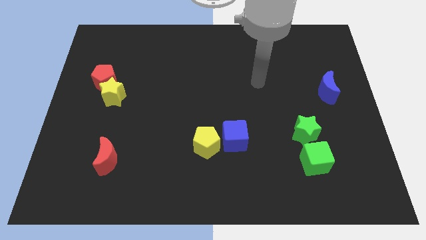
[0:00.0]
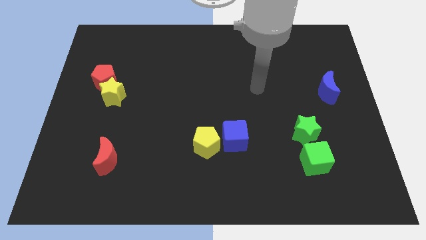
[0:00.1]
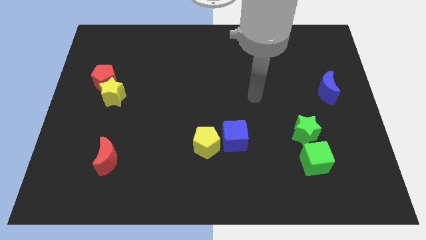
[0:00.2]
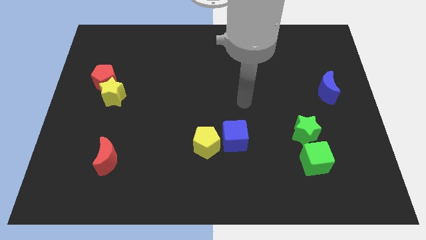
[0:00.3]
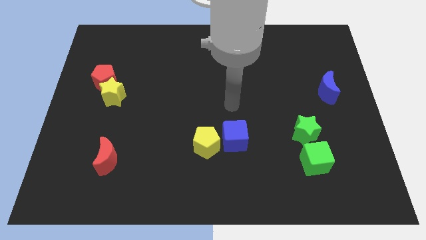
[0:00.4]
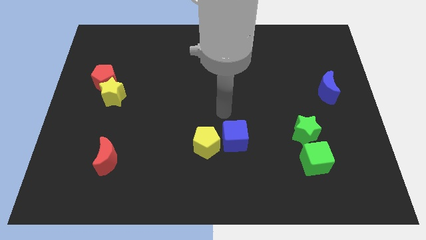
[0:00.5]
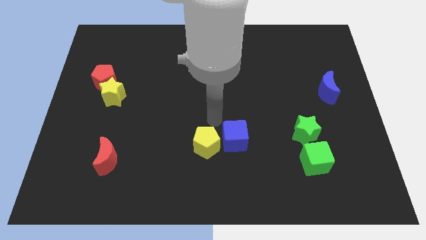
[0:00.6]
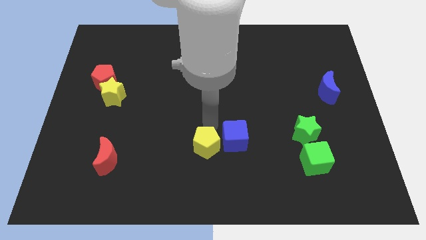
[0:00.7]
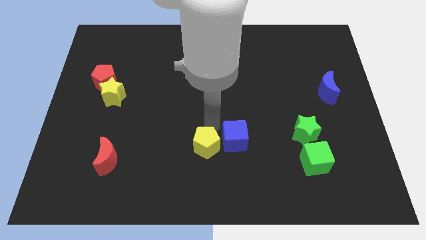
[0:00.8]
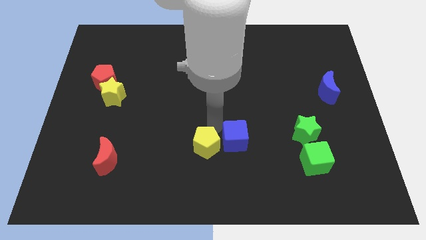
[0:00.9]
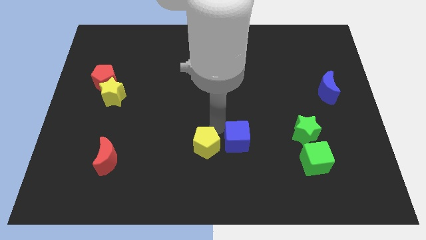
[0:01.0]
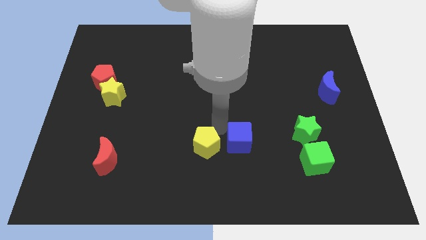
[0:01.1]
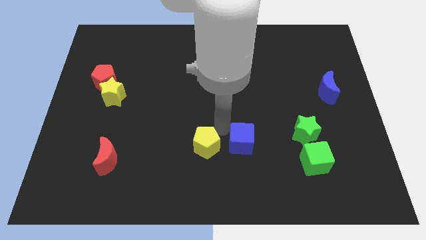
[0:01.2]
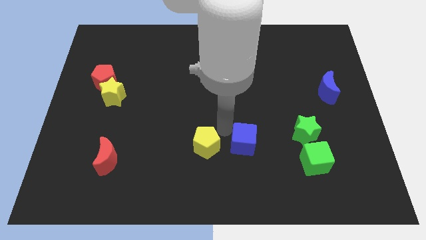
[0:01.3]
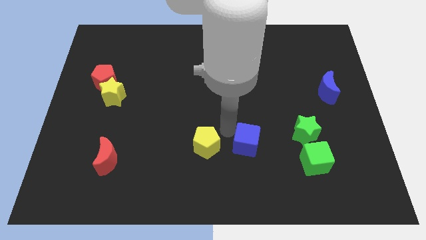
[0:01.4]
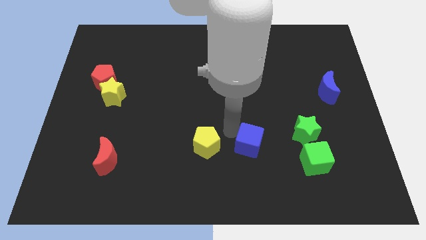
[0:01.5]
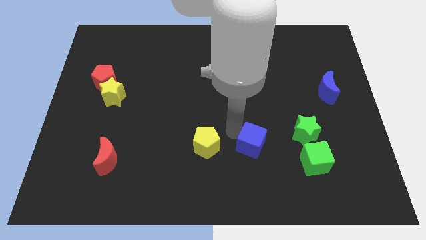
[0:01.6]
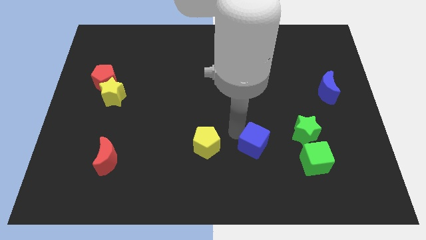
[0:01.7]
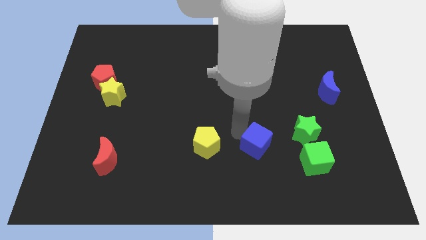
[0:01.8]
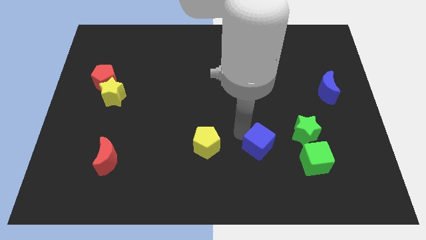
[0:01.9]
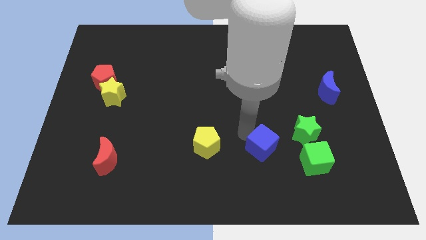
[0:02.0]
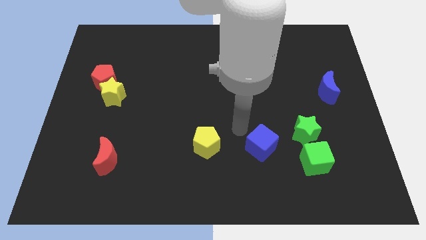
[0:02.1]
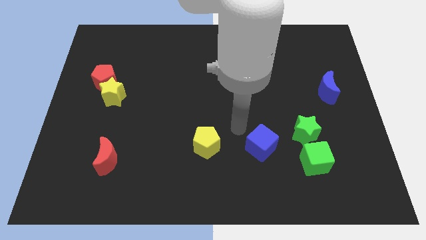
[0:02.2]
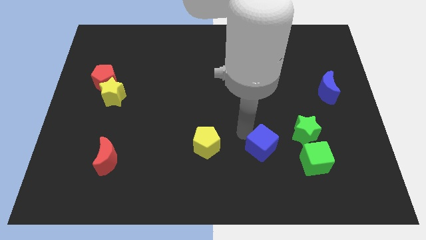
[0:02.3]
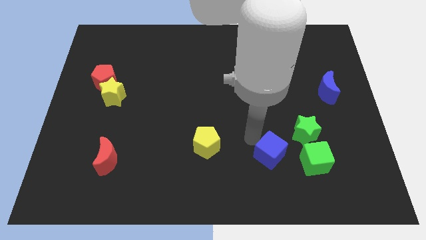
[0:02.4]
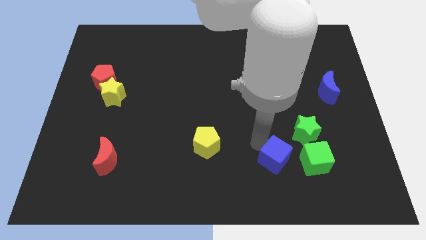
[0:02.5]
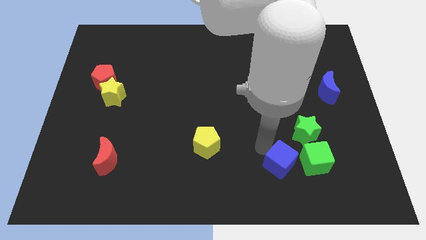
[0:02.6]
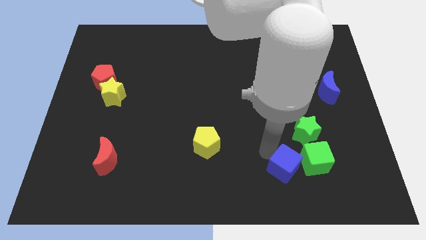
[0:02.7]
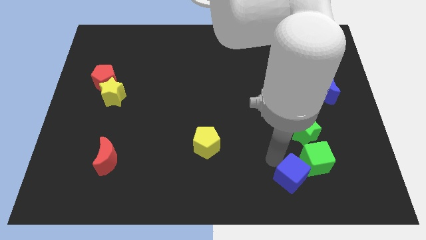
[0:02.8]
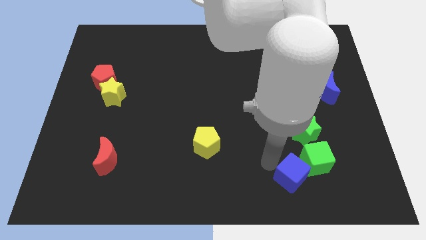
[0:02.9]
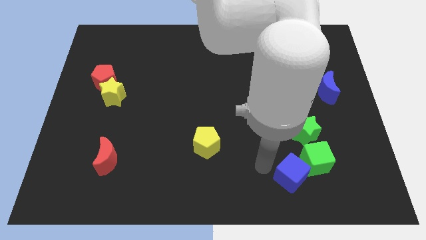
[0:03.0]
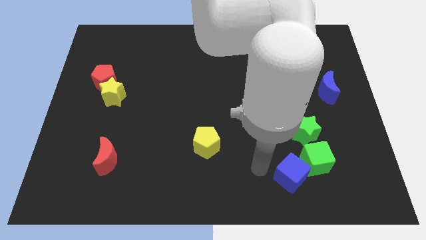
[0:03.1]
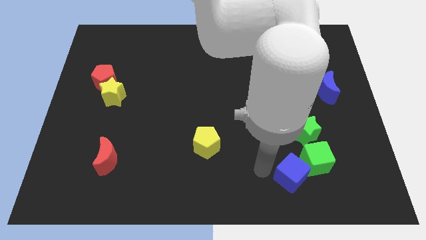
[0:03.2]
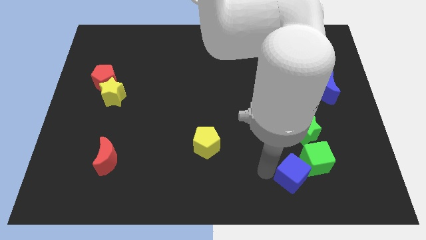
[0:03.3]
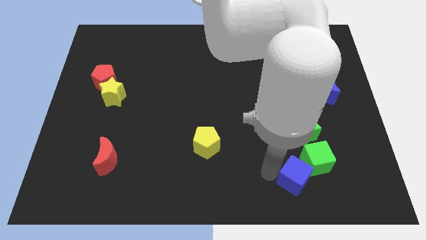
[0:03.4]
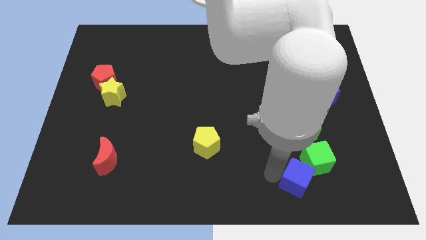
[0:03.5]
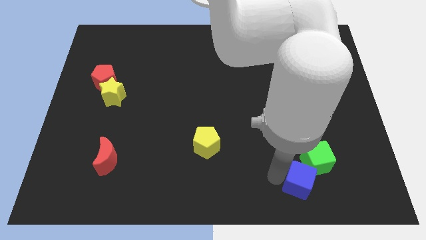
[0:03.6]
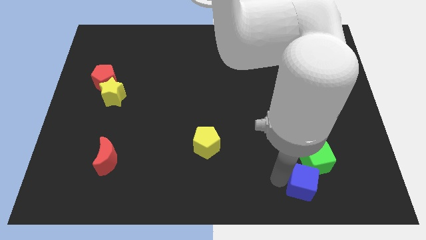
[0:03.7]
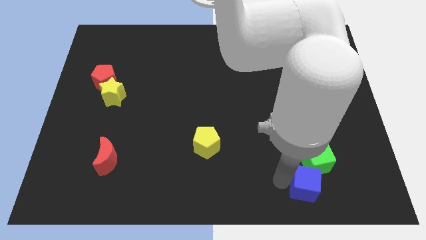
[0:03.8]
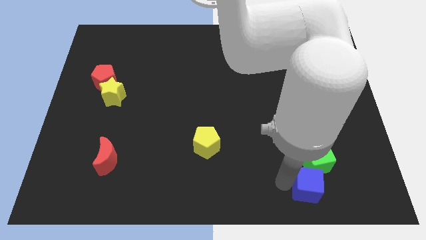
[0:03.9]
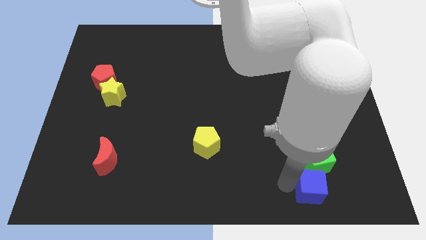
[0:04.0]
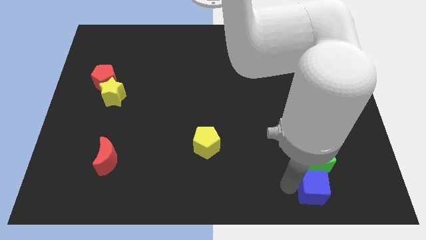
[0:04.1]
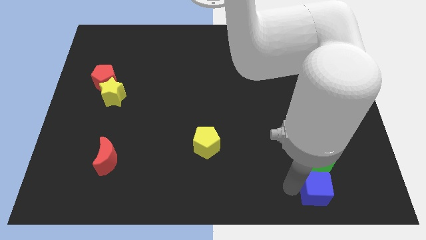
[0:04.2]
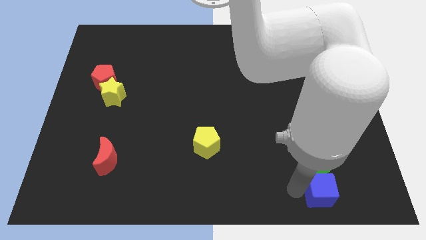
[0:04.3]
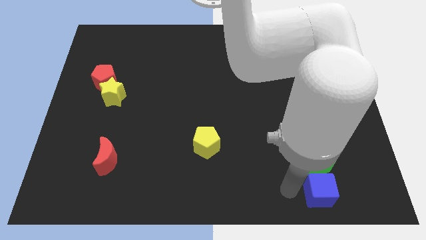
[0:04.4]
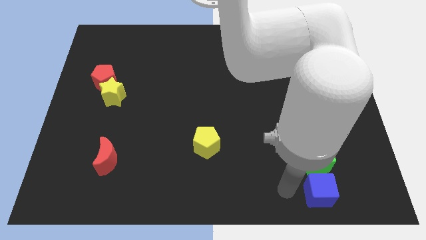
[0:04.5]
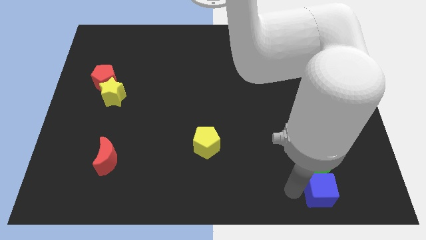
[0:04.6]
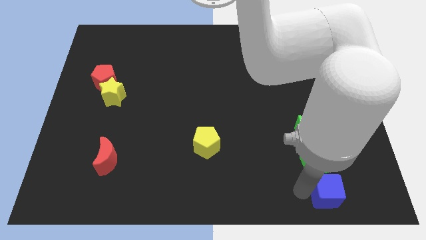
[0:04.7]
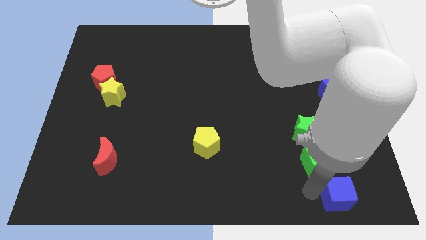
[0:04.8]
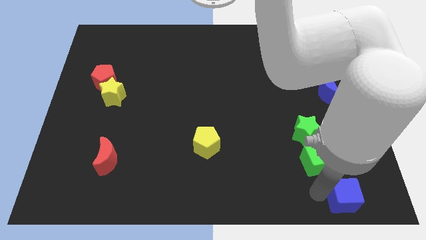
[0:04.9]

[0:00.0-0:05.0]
put the blue cube to the bottom right of the board
